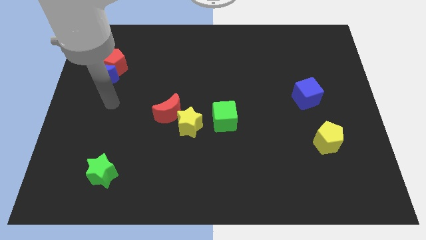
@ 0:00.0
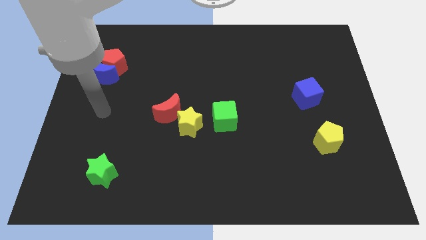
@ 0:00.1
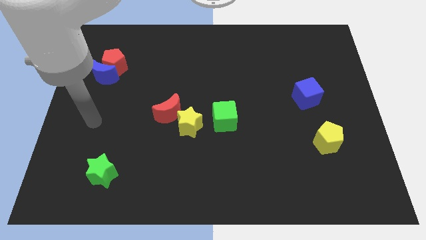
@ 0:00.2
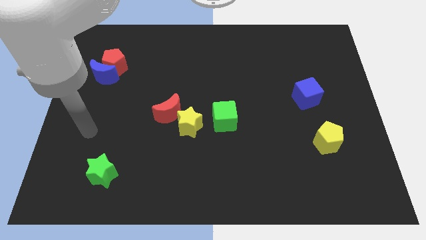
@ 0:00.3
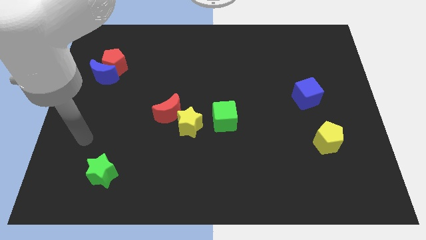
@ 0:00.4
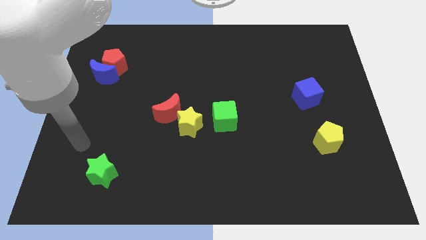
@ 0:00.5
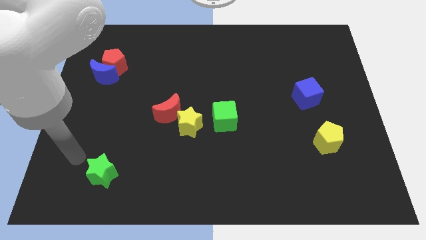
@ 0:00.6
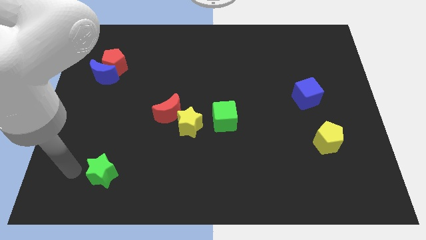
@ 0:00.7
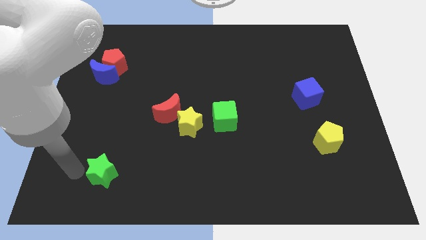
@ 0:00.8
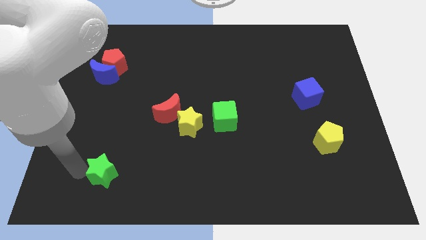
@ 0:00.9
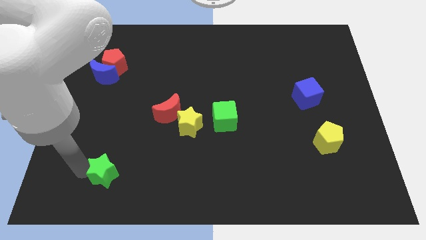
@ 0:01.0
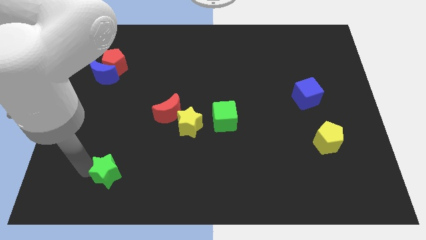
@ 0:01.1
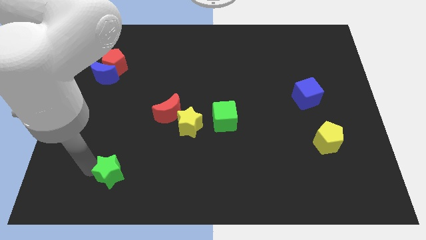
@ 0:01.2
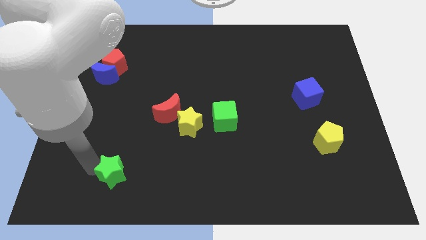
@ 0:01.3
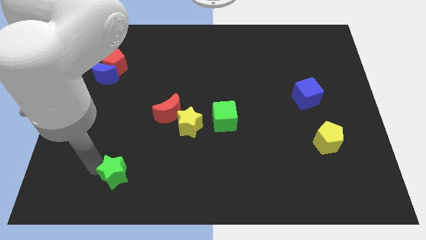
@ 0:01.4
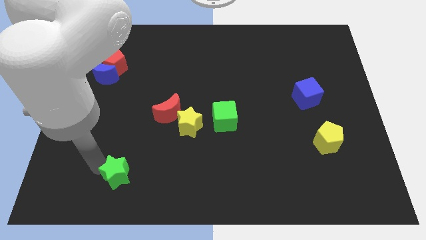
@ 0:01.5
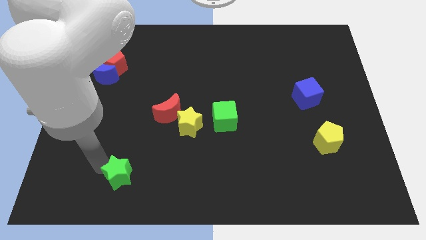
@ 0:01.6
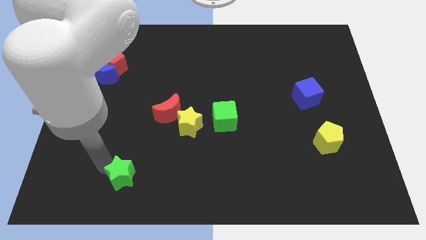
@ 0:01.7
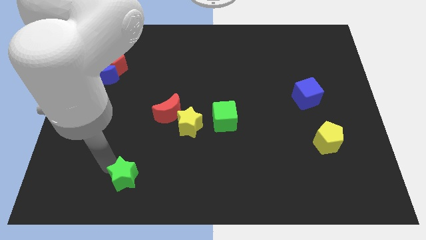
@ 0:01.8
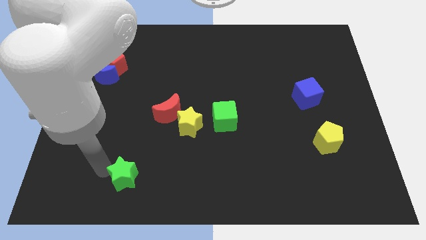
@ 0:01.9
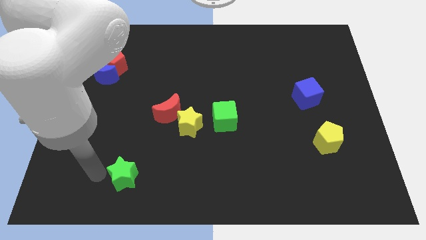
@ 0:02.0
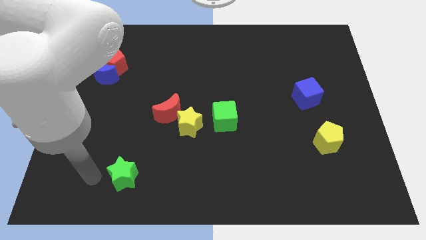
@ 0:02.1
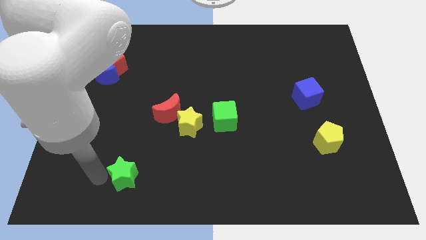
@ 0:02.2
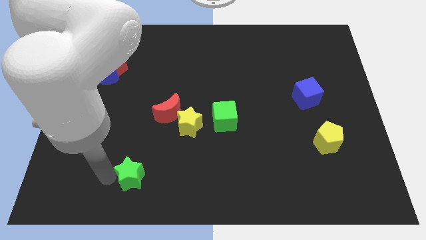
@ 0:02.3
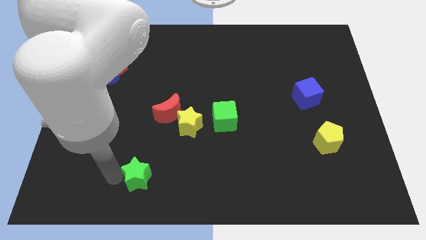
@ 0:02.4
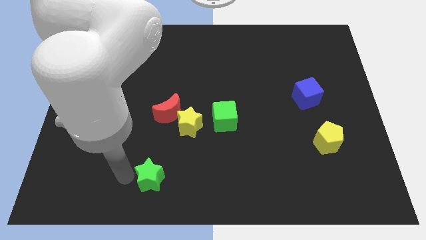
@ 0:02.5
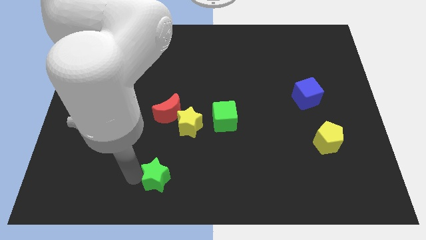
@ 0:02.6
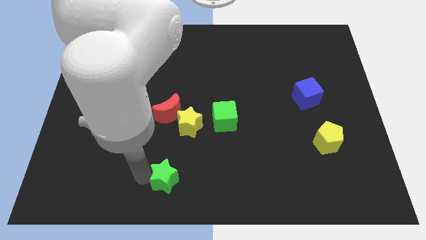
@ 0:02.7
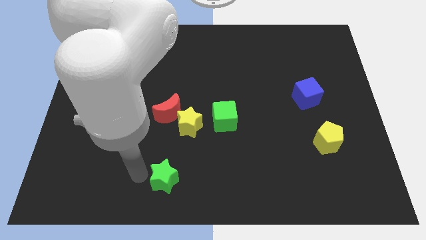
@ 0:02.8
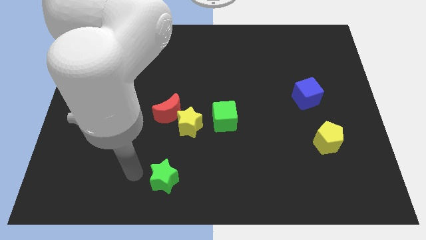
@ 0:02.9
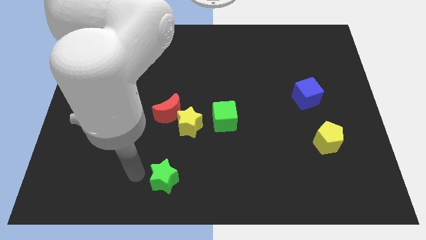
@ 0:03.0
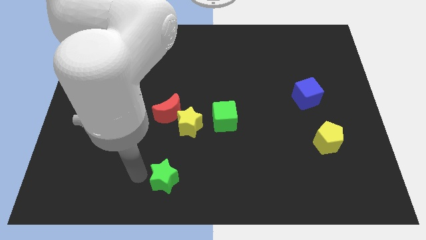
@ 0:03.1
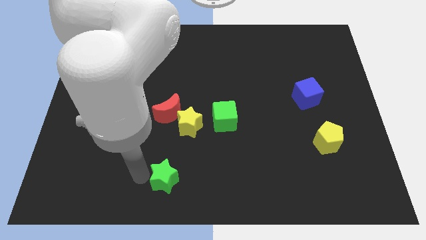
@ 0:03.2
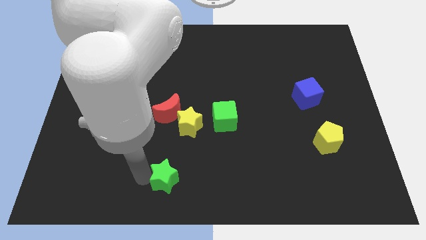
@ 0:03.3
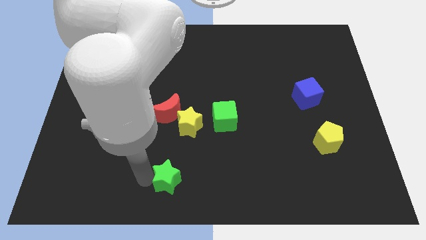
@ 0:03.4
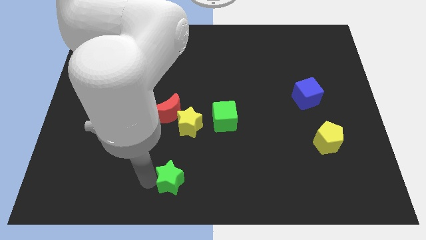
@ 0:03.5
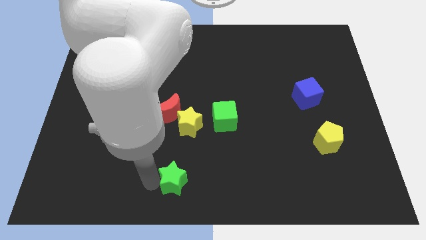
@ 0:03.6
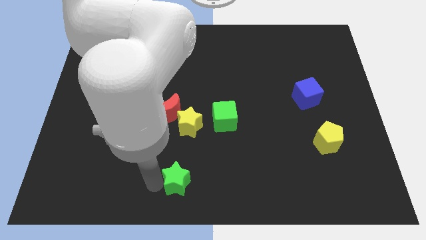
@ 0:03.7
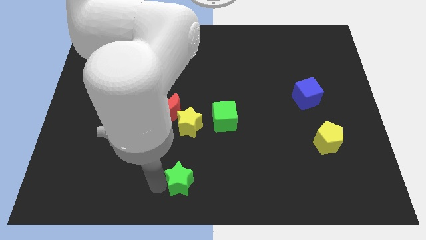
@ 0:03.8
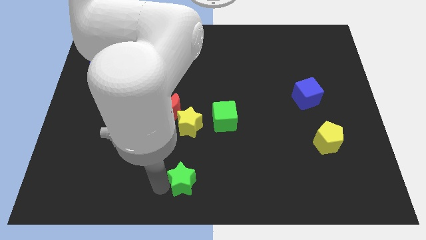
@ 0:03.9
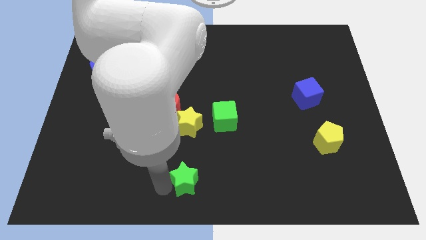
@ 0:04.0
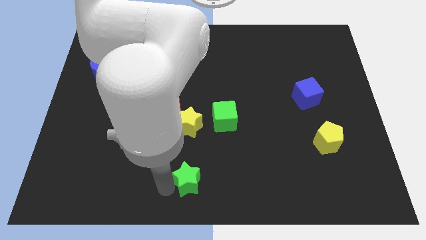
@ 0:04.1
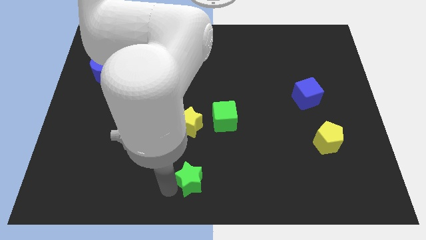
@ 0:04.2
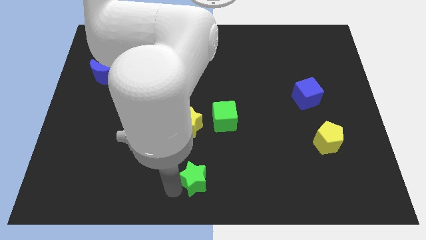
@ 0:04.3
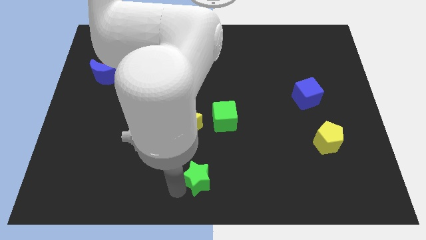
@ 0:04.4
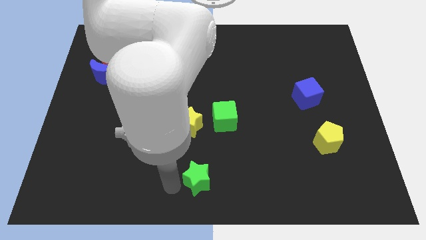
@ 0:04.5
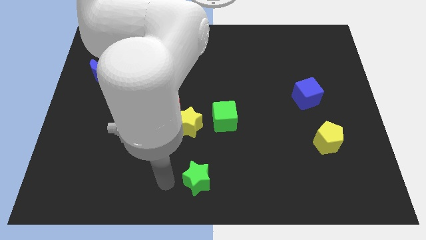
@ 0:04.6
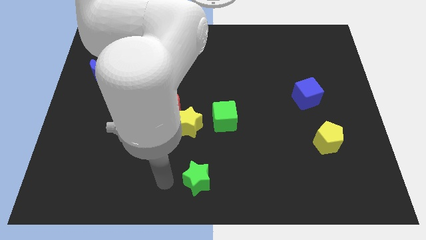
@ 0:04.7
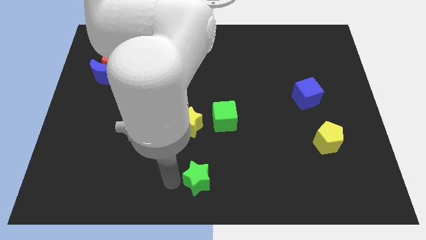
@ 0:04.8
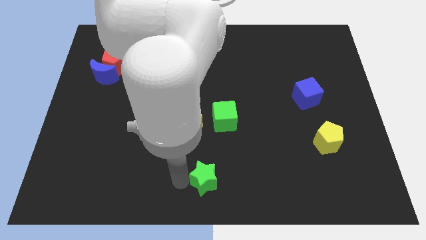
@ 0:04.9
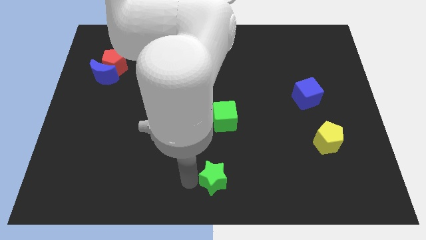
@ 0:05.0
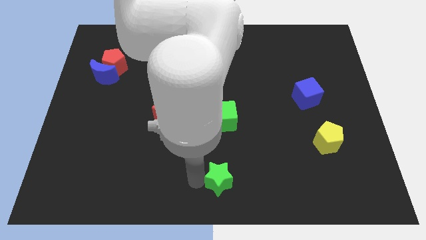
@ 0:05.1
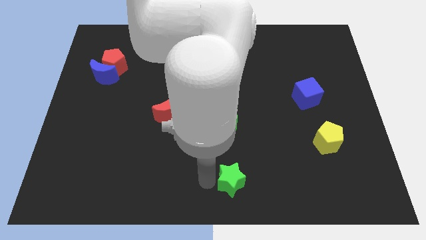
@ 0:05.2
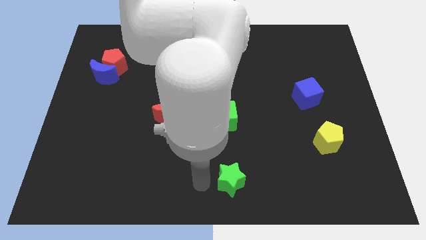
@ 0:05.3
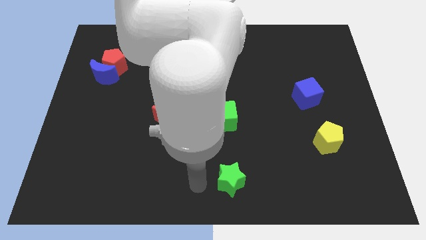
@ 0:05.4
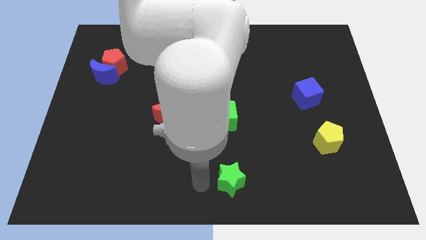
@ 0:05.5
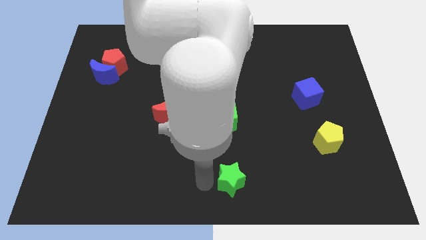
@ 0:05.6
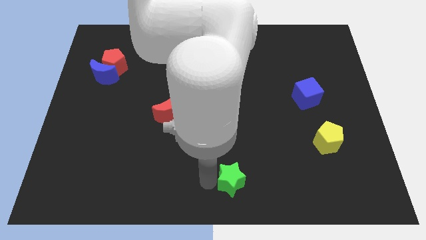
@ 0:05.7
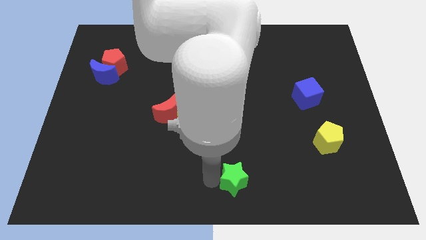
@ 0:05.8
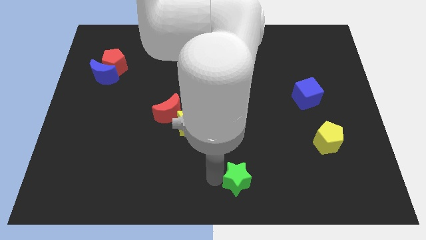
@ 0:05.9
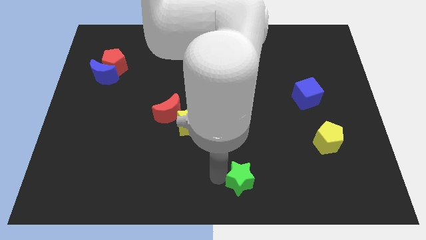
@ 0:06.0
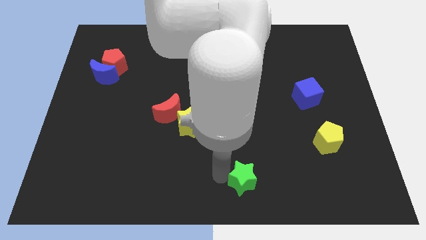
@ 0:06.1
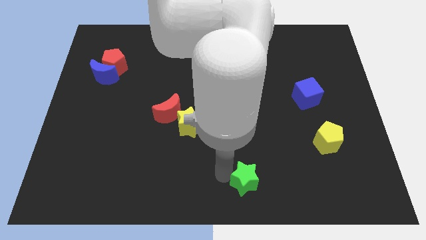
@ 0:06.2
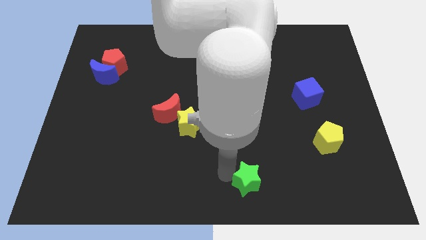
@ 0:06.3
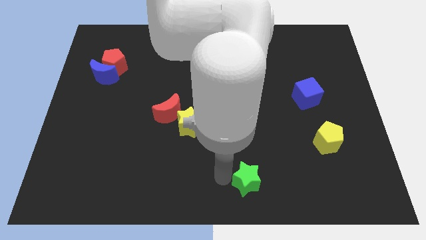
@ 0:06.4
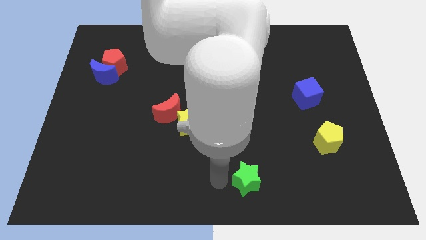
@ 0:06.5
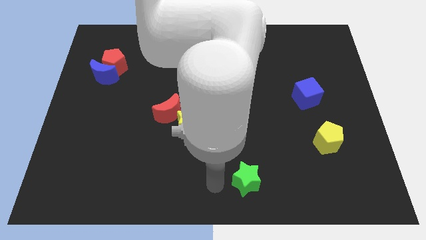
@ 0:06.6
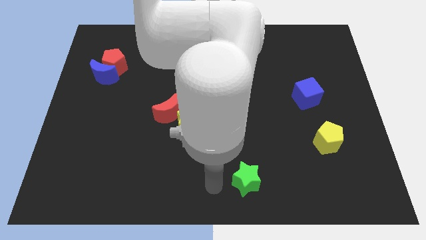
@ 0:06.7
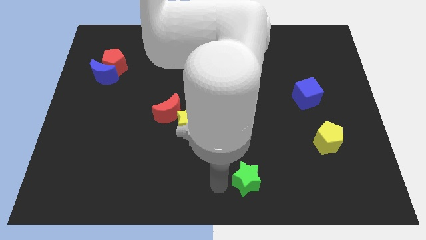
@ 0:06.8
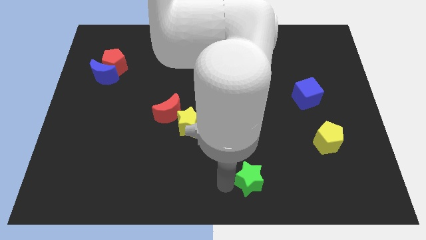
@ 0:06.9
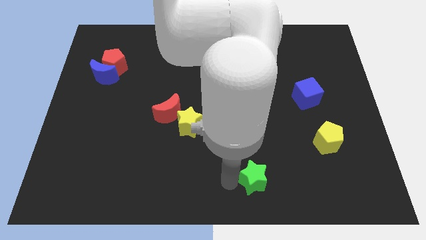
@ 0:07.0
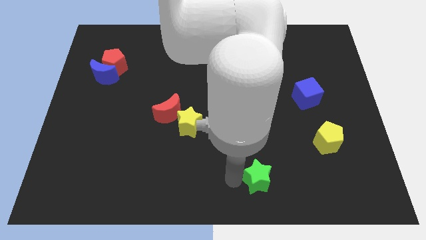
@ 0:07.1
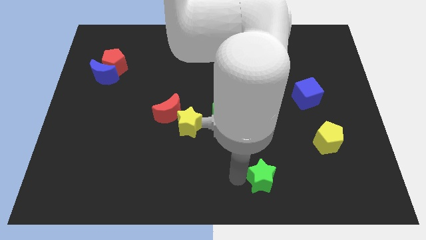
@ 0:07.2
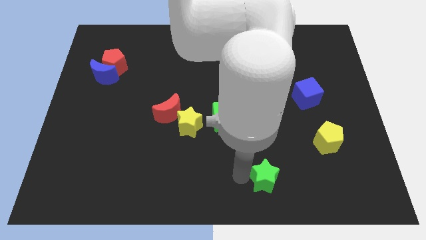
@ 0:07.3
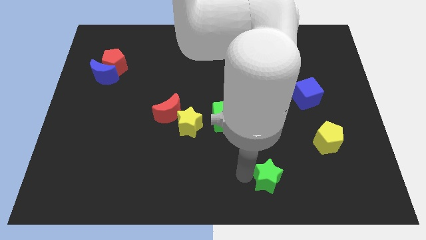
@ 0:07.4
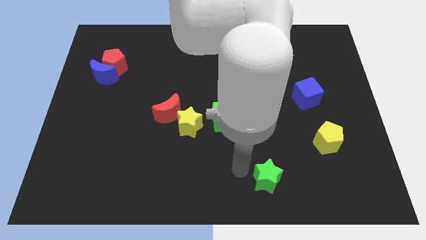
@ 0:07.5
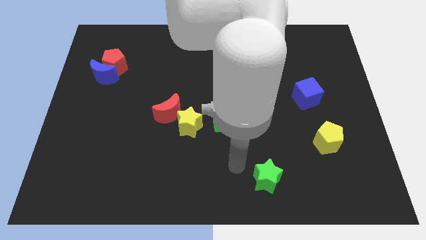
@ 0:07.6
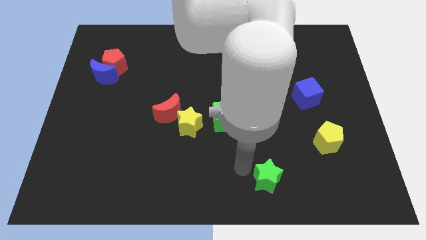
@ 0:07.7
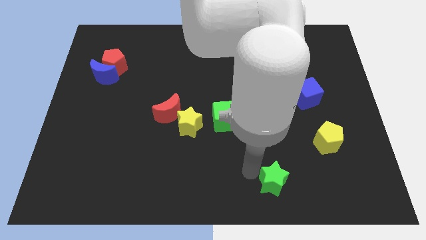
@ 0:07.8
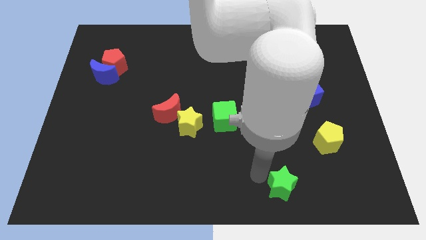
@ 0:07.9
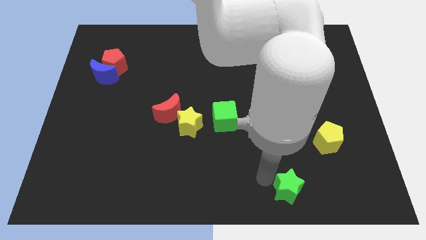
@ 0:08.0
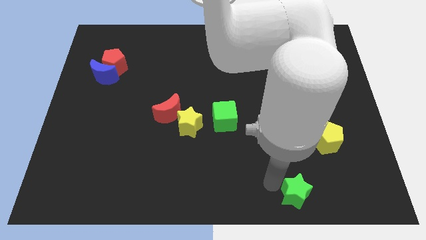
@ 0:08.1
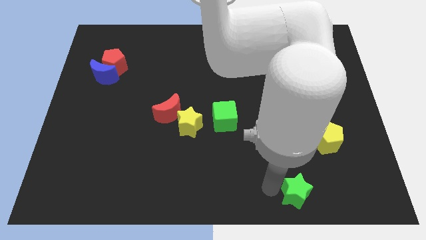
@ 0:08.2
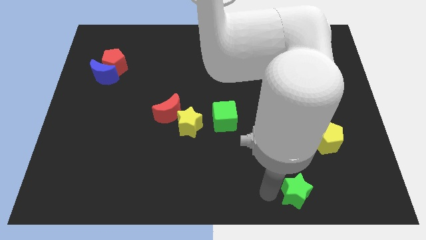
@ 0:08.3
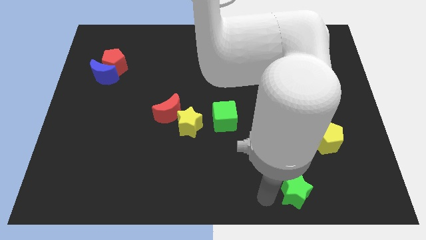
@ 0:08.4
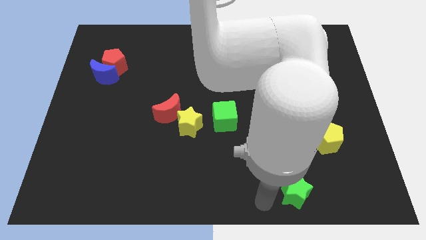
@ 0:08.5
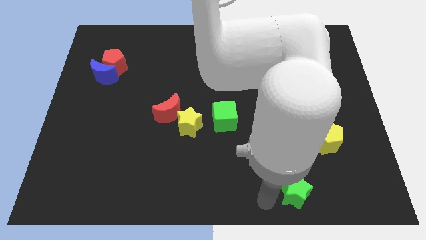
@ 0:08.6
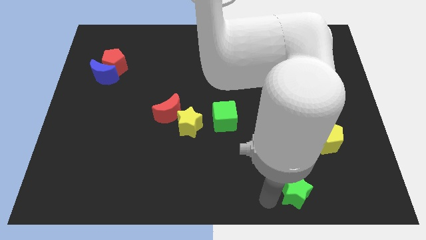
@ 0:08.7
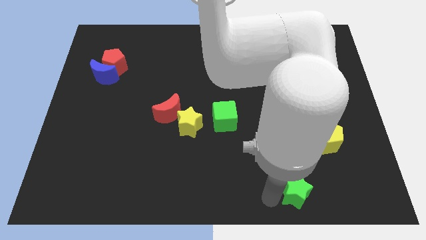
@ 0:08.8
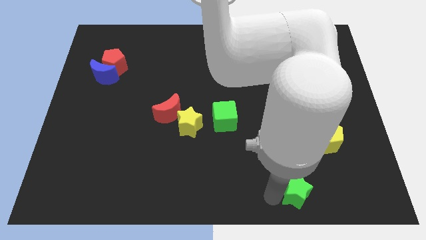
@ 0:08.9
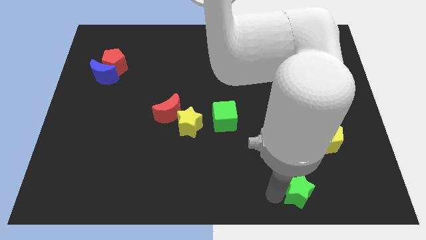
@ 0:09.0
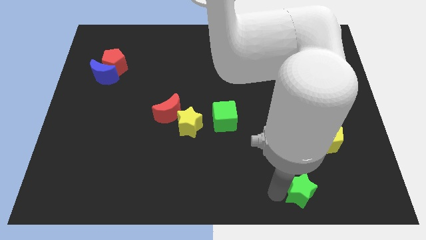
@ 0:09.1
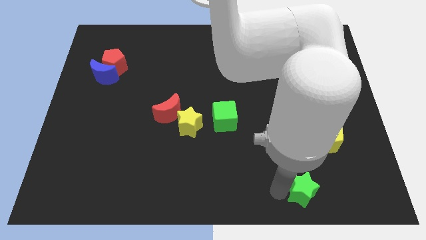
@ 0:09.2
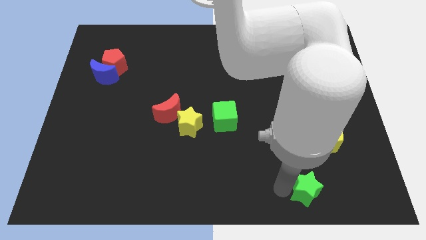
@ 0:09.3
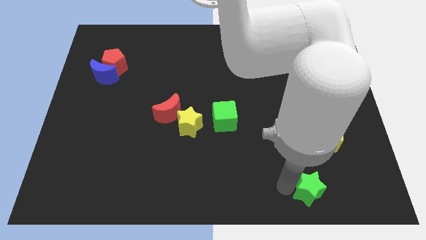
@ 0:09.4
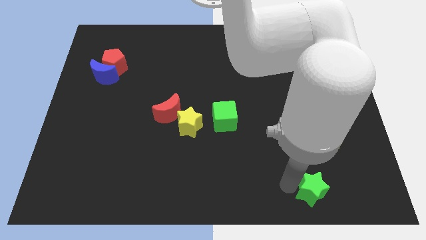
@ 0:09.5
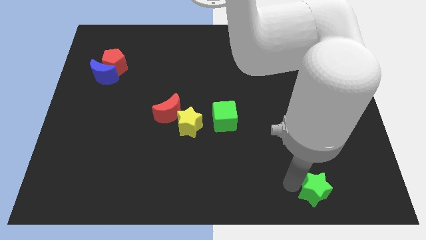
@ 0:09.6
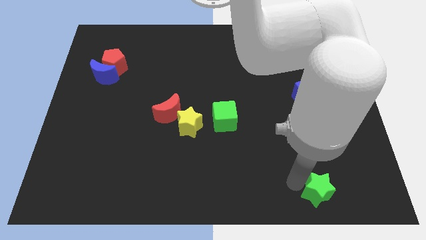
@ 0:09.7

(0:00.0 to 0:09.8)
push the green star to the bottom of the yellow pentagon
